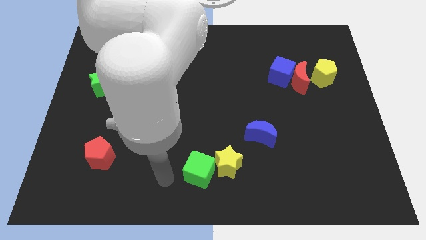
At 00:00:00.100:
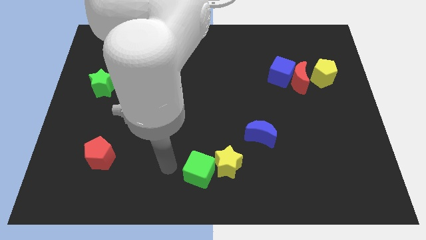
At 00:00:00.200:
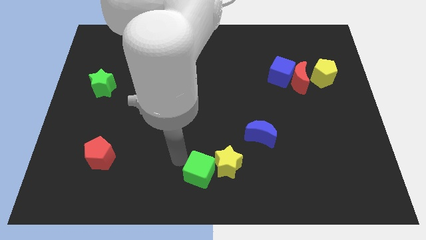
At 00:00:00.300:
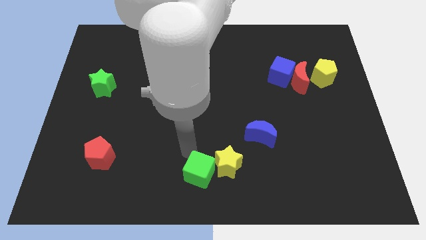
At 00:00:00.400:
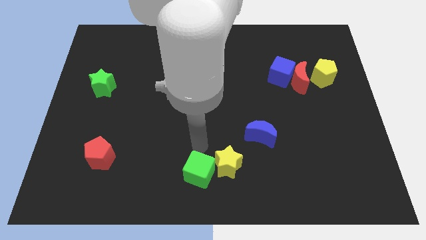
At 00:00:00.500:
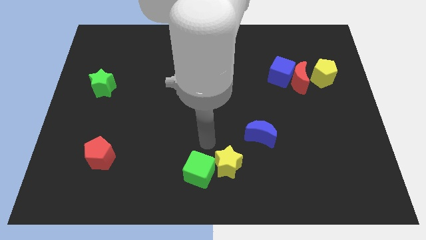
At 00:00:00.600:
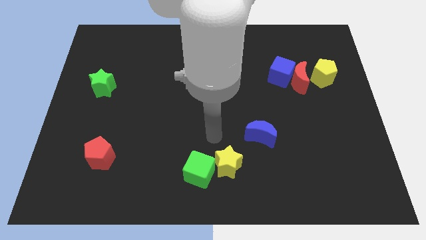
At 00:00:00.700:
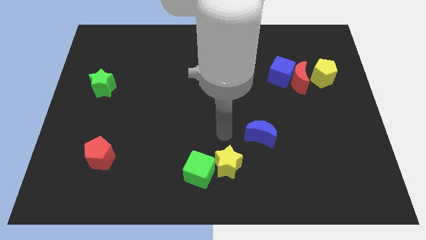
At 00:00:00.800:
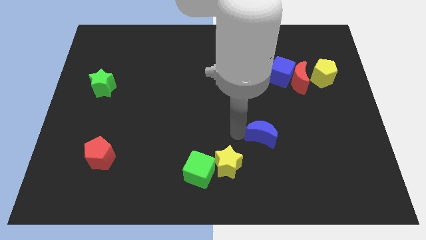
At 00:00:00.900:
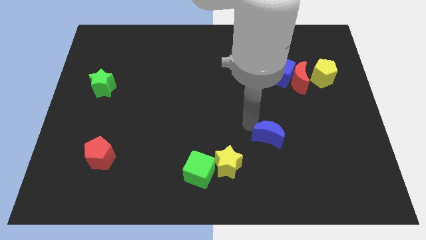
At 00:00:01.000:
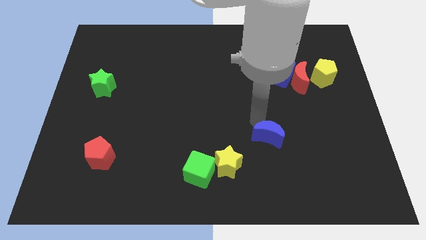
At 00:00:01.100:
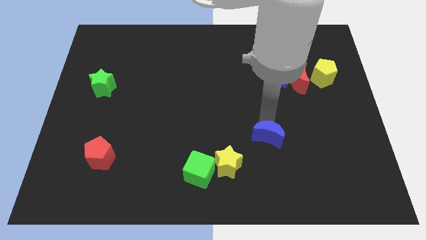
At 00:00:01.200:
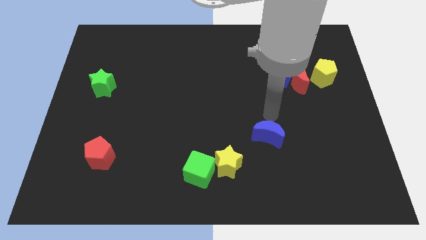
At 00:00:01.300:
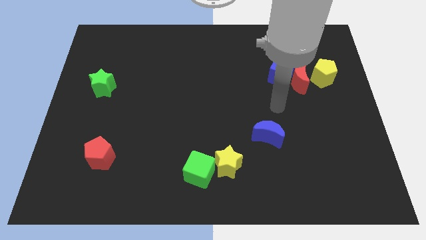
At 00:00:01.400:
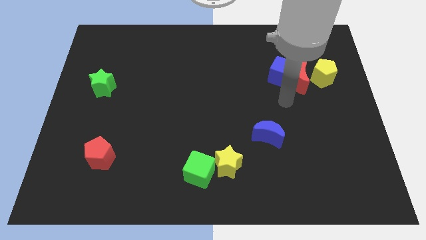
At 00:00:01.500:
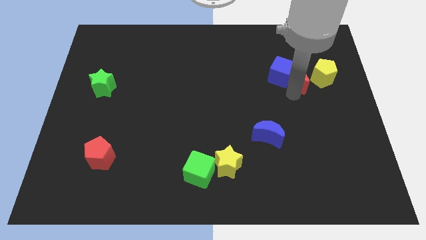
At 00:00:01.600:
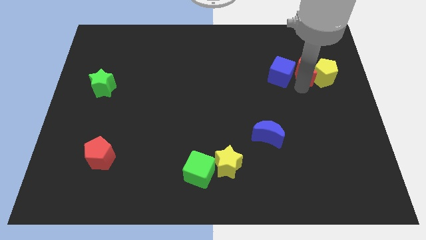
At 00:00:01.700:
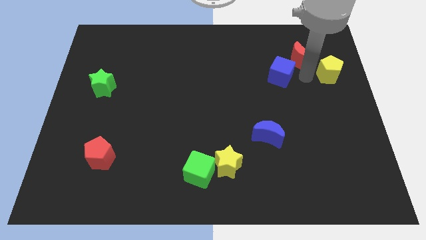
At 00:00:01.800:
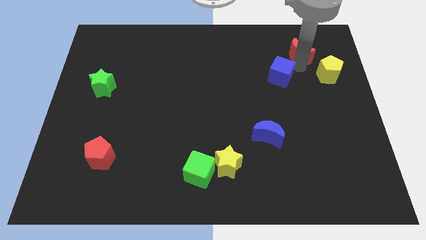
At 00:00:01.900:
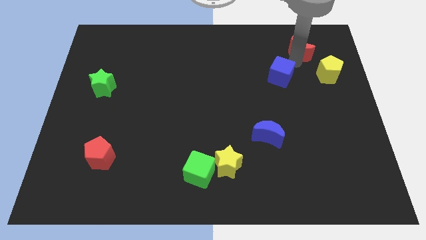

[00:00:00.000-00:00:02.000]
move the blue cube away from the red moon

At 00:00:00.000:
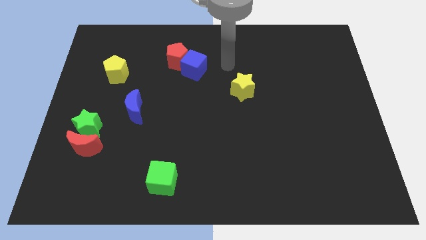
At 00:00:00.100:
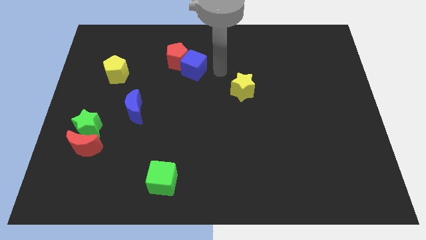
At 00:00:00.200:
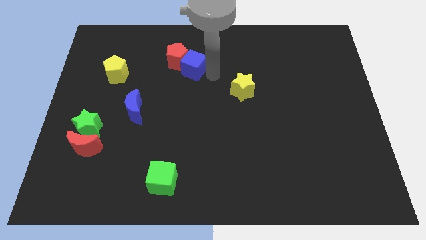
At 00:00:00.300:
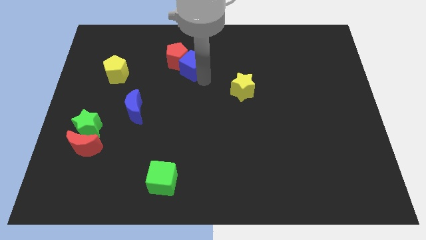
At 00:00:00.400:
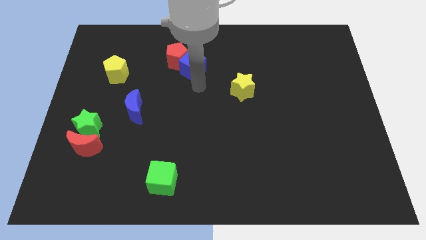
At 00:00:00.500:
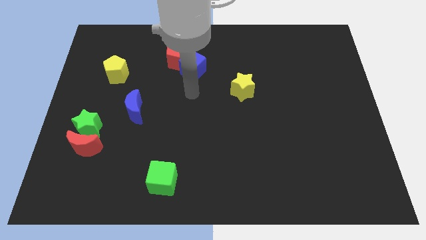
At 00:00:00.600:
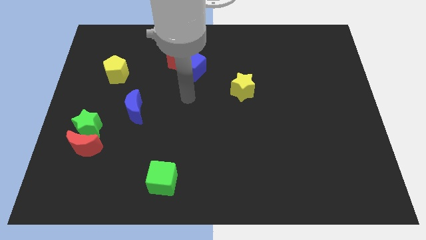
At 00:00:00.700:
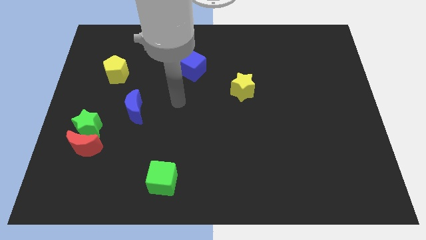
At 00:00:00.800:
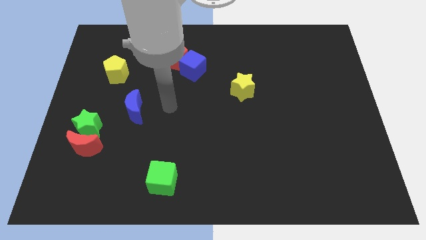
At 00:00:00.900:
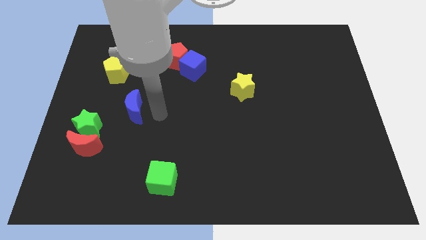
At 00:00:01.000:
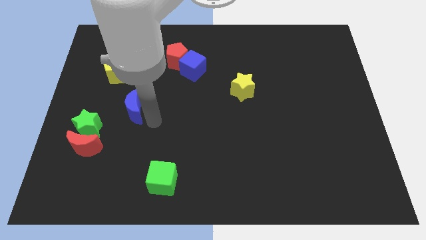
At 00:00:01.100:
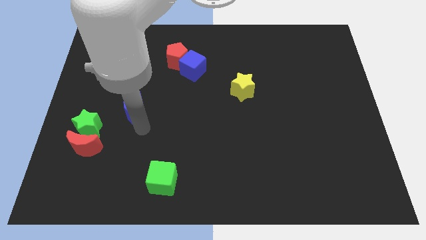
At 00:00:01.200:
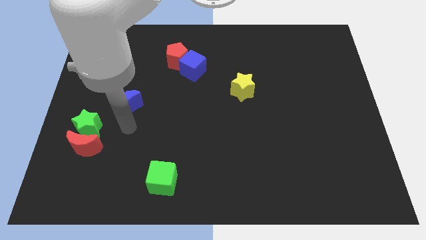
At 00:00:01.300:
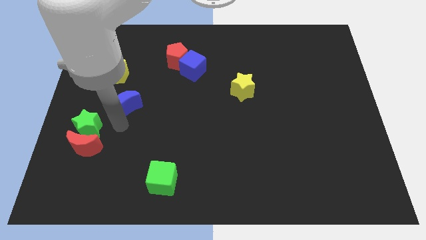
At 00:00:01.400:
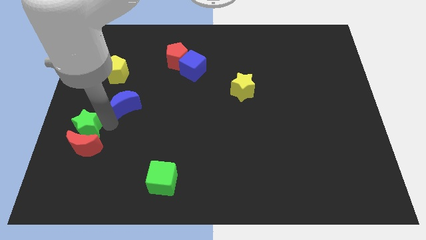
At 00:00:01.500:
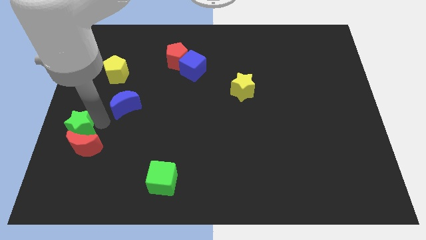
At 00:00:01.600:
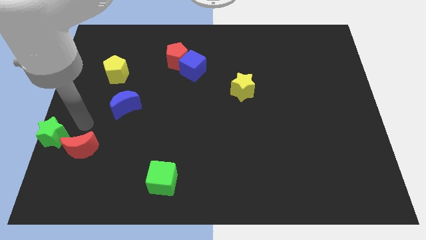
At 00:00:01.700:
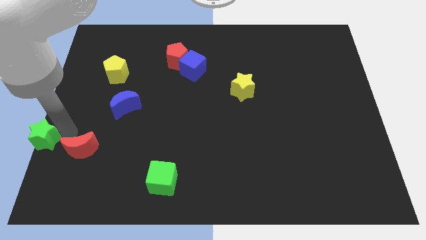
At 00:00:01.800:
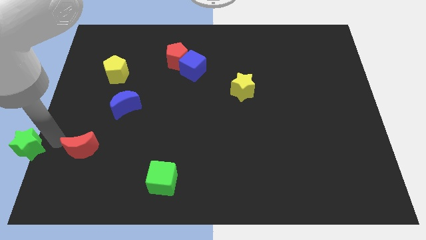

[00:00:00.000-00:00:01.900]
pull the red moon apart from the green star

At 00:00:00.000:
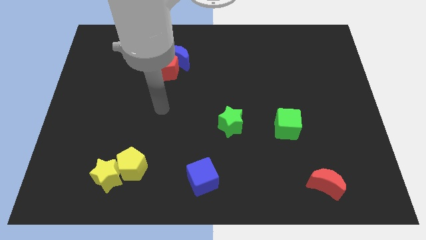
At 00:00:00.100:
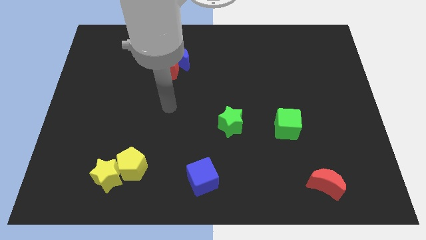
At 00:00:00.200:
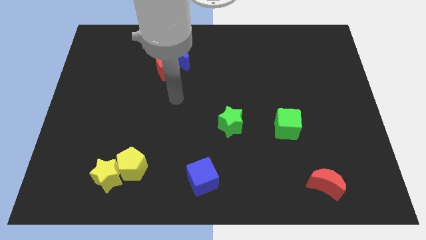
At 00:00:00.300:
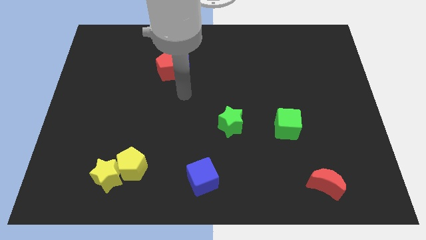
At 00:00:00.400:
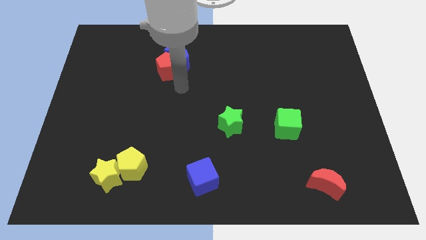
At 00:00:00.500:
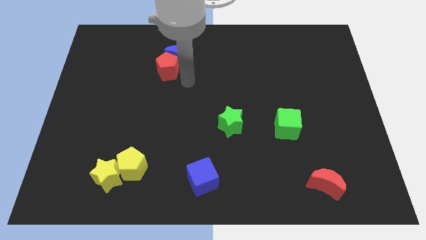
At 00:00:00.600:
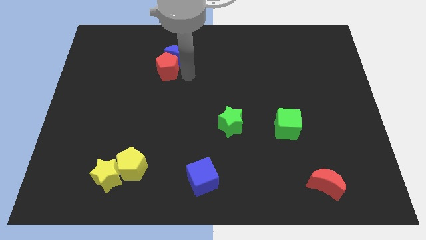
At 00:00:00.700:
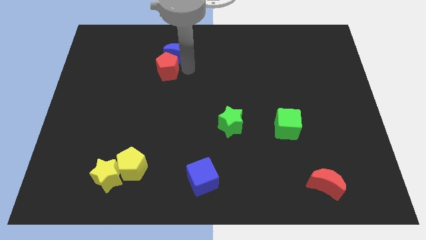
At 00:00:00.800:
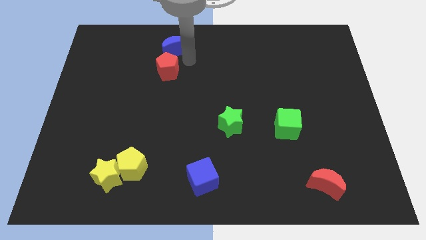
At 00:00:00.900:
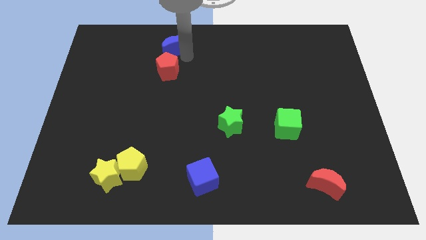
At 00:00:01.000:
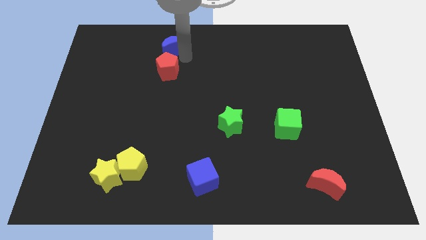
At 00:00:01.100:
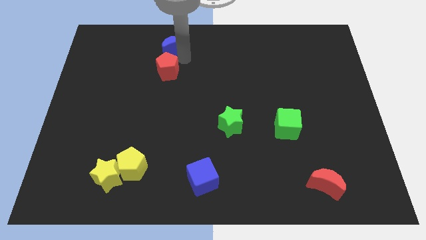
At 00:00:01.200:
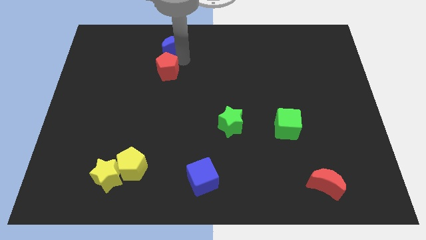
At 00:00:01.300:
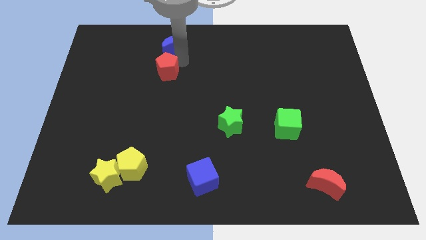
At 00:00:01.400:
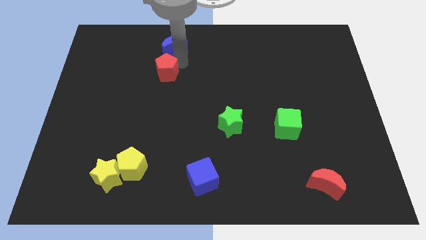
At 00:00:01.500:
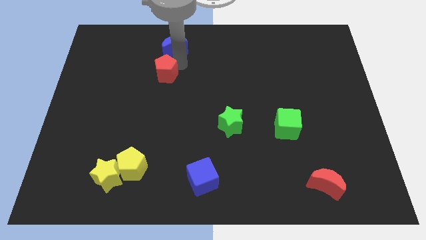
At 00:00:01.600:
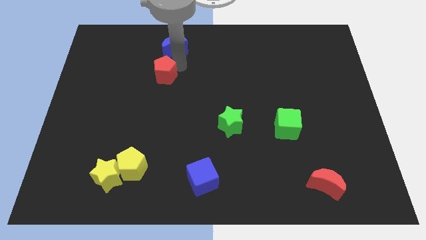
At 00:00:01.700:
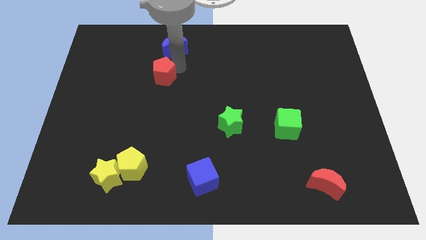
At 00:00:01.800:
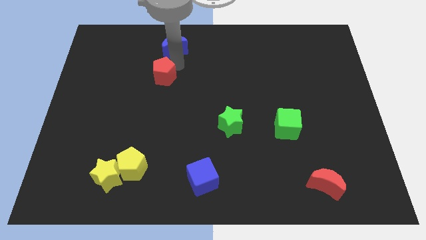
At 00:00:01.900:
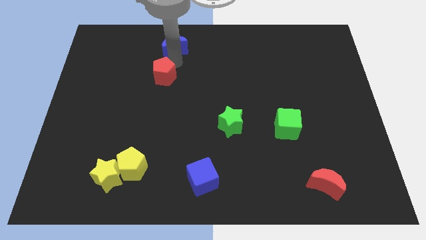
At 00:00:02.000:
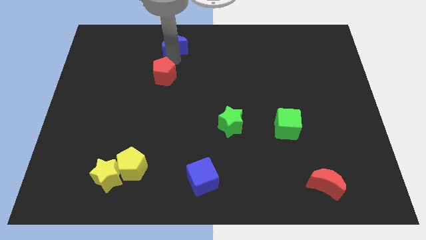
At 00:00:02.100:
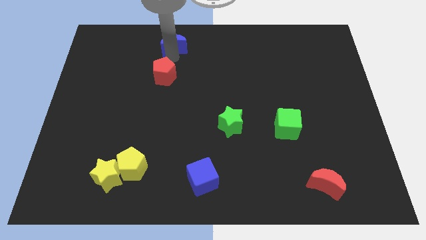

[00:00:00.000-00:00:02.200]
pull the red pentagon apart from the blue moon

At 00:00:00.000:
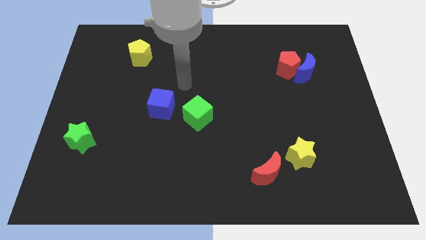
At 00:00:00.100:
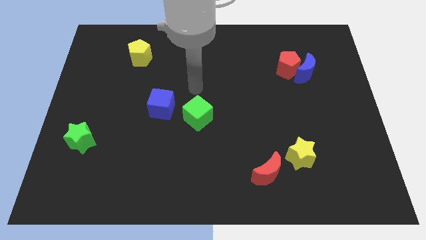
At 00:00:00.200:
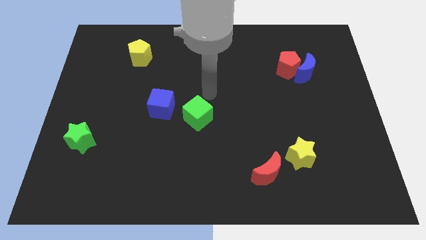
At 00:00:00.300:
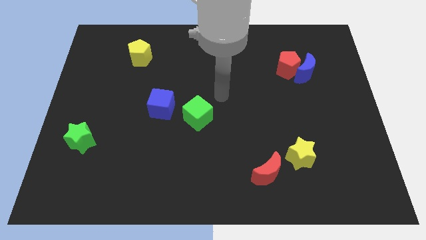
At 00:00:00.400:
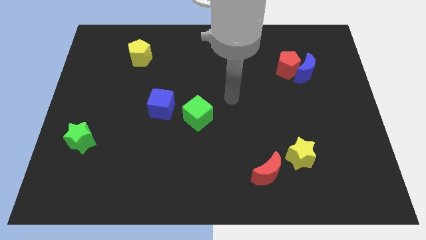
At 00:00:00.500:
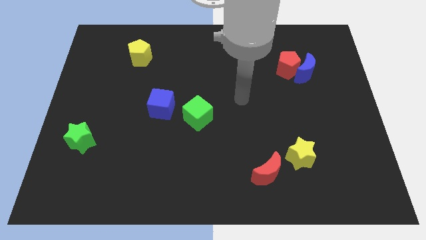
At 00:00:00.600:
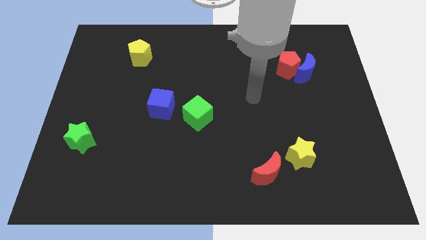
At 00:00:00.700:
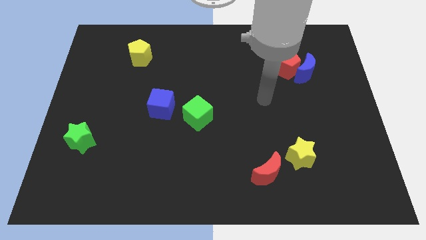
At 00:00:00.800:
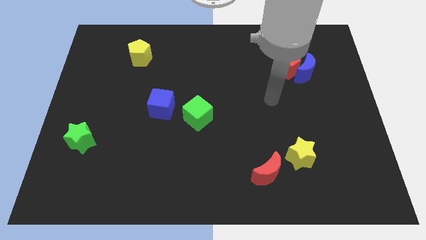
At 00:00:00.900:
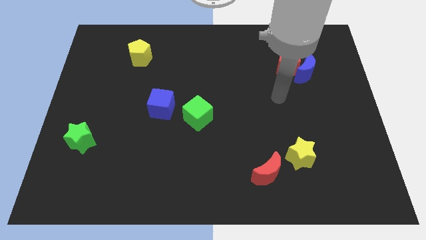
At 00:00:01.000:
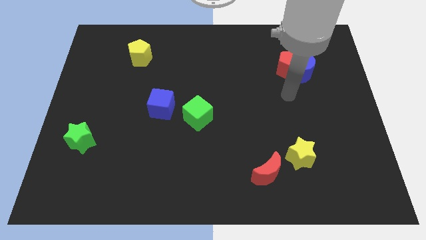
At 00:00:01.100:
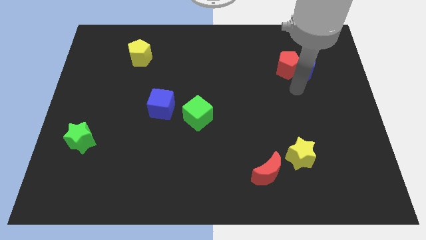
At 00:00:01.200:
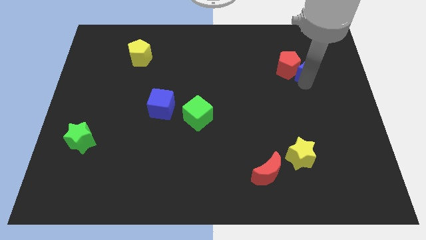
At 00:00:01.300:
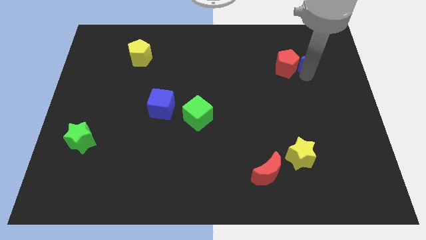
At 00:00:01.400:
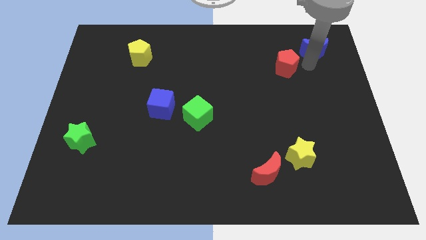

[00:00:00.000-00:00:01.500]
move the red pentagon away from the blue moon

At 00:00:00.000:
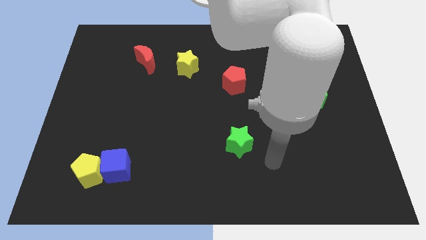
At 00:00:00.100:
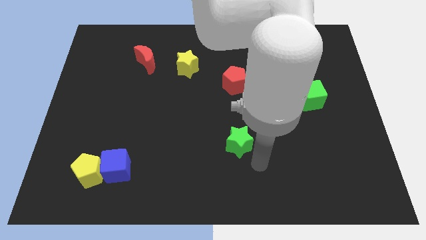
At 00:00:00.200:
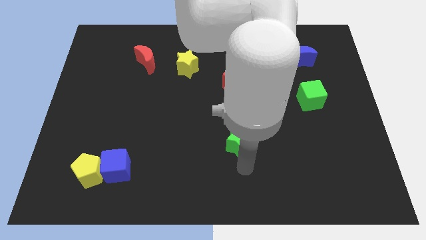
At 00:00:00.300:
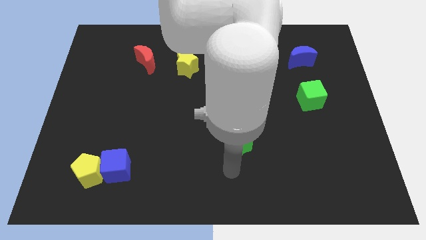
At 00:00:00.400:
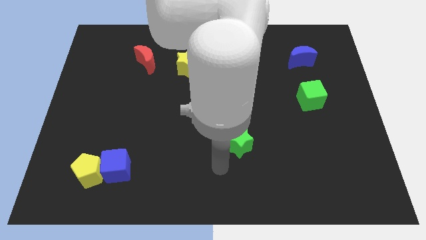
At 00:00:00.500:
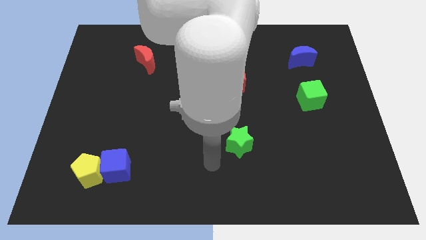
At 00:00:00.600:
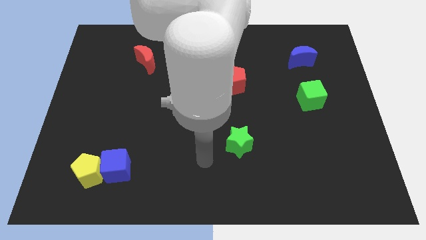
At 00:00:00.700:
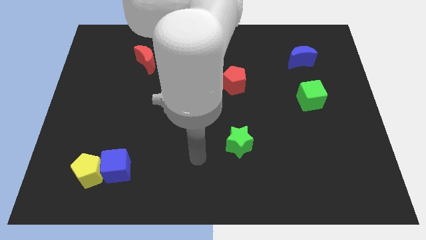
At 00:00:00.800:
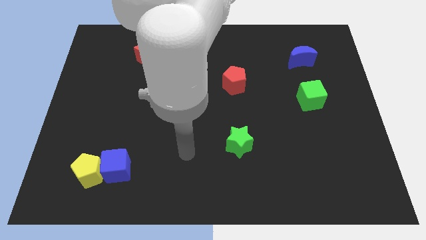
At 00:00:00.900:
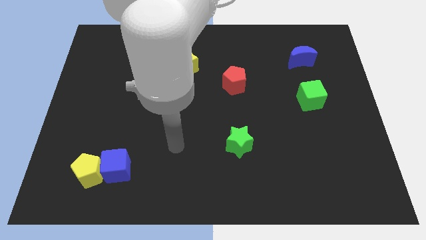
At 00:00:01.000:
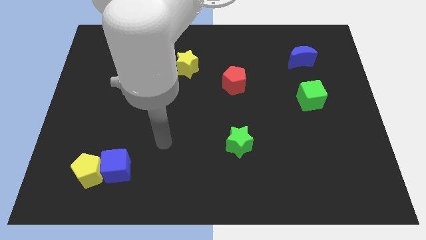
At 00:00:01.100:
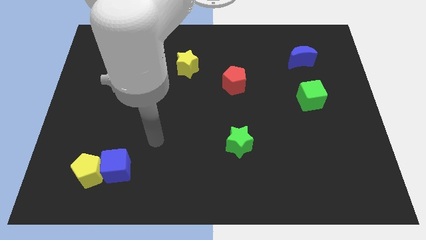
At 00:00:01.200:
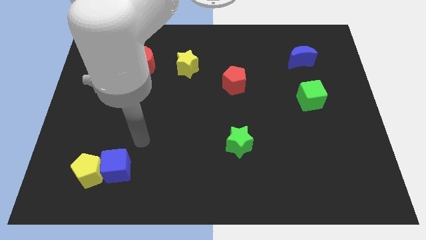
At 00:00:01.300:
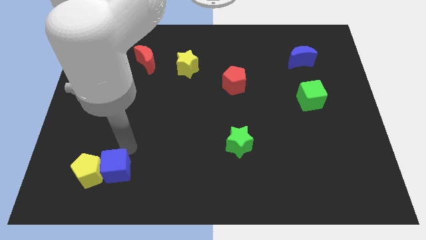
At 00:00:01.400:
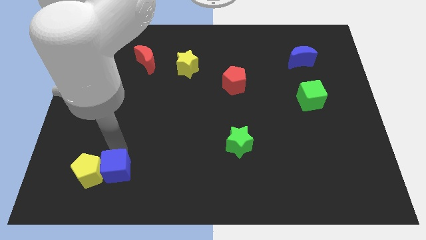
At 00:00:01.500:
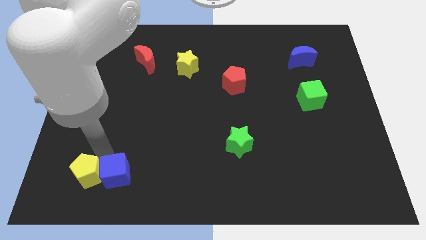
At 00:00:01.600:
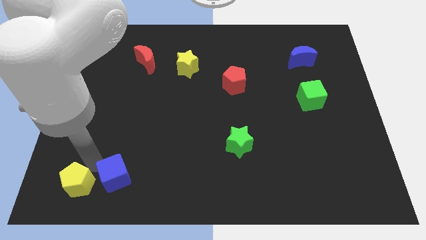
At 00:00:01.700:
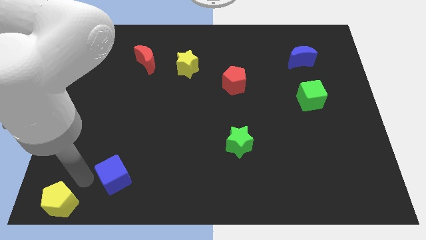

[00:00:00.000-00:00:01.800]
separate the blue cube from the yellow pentagon
